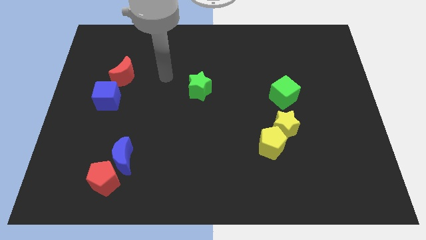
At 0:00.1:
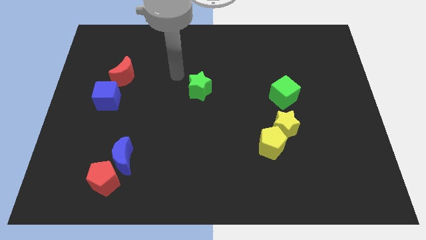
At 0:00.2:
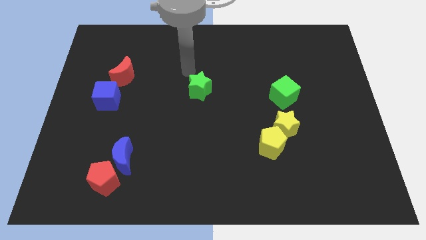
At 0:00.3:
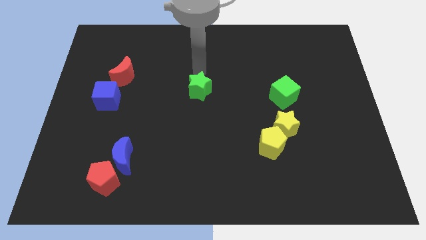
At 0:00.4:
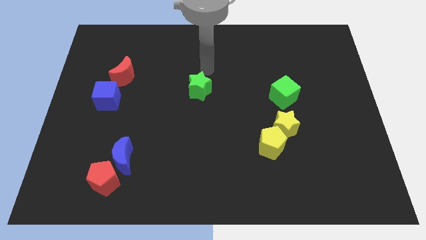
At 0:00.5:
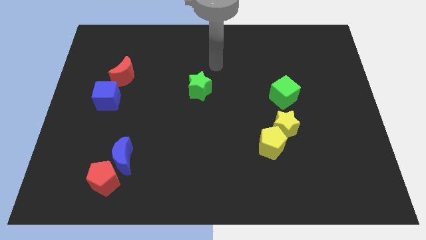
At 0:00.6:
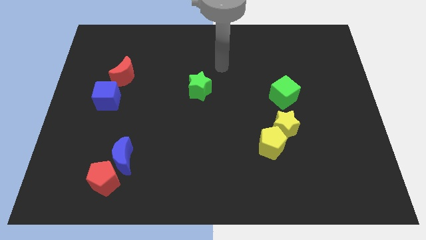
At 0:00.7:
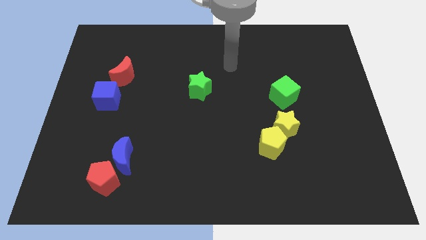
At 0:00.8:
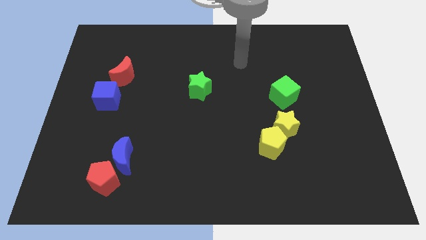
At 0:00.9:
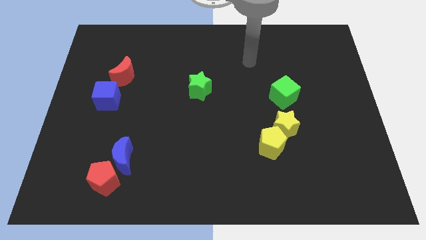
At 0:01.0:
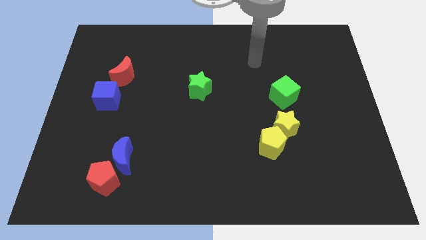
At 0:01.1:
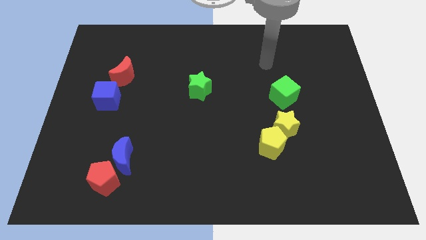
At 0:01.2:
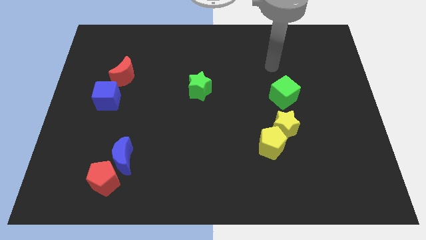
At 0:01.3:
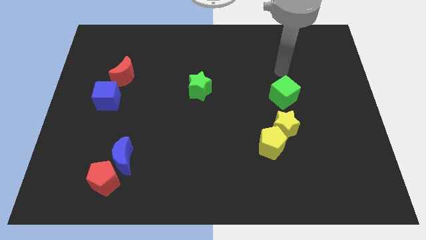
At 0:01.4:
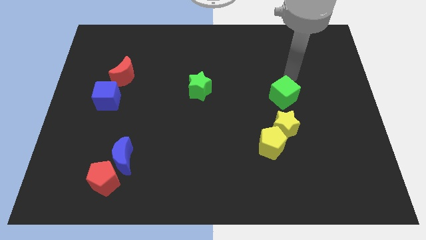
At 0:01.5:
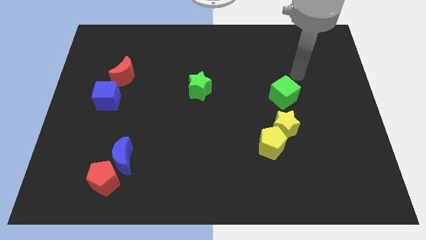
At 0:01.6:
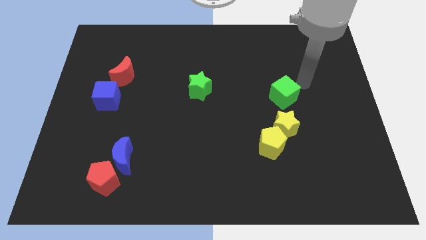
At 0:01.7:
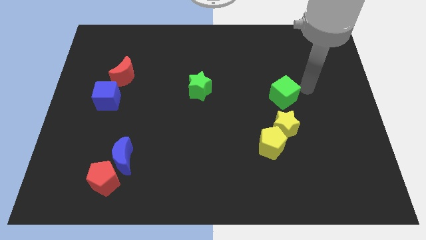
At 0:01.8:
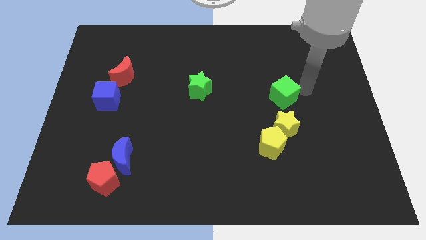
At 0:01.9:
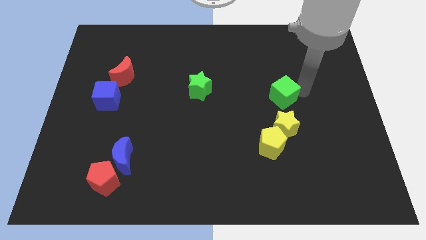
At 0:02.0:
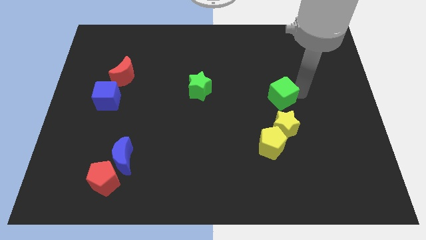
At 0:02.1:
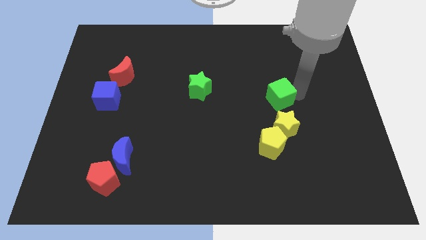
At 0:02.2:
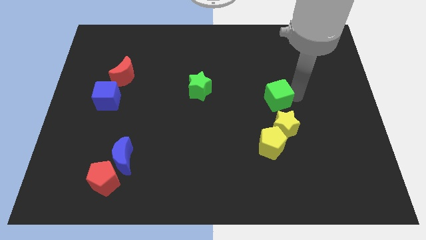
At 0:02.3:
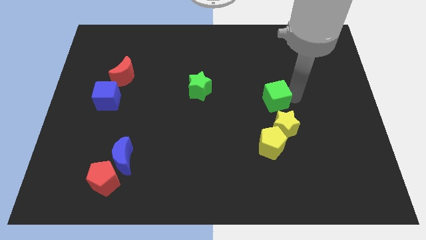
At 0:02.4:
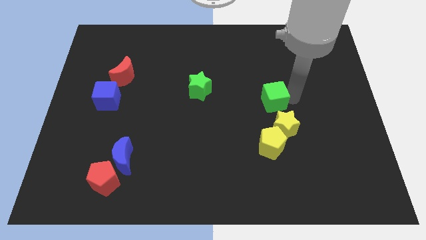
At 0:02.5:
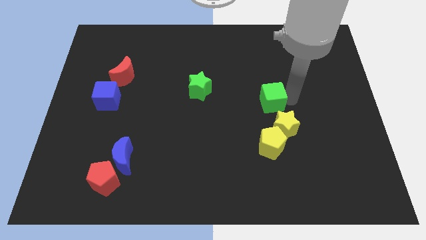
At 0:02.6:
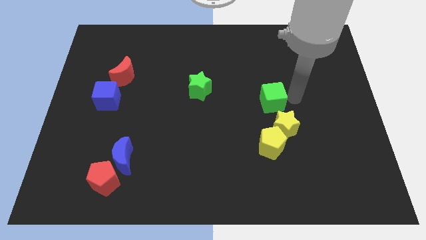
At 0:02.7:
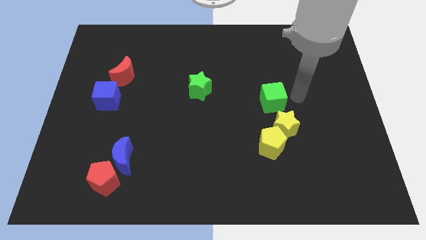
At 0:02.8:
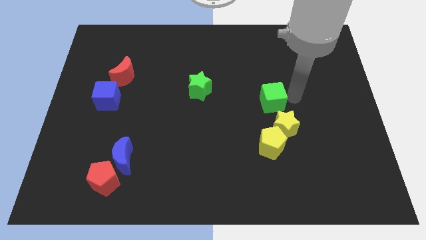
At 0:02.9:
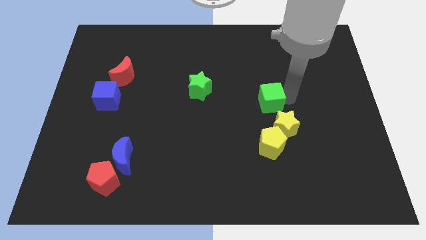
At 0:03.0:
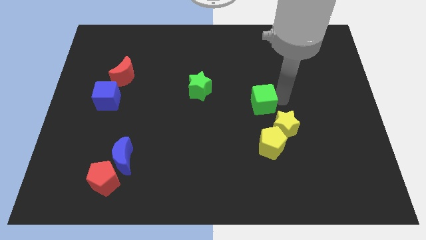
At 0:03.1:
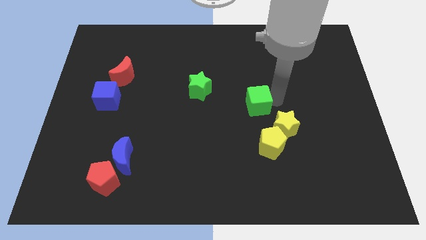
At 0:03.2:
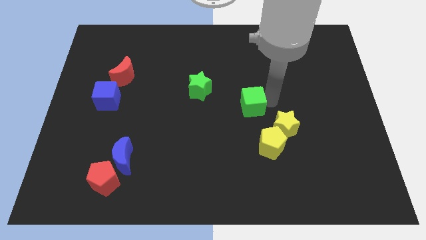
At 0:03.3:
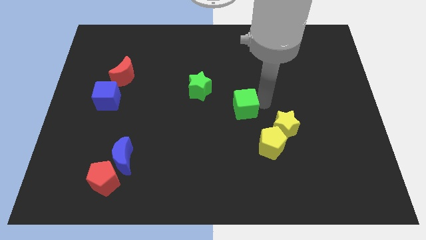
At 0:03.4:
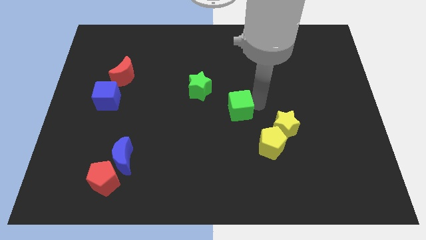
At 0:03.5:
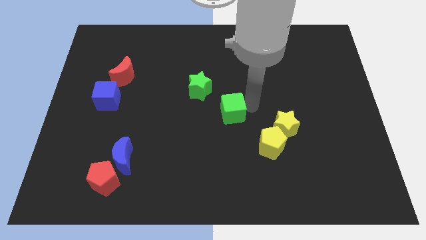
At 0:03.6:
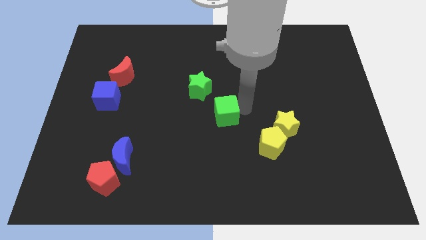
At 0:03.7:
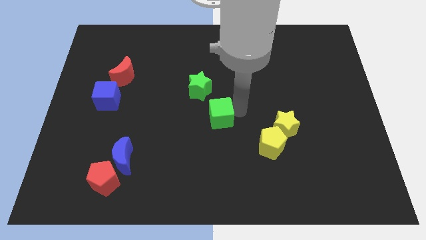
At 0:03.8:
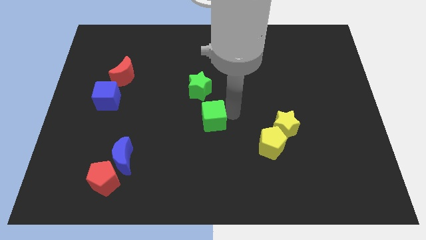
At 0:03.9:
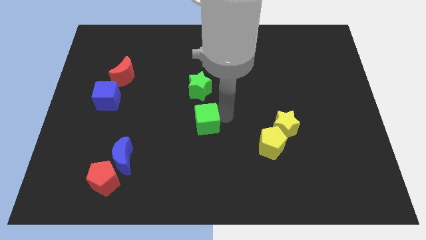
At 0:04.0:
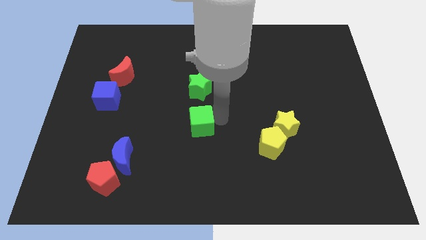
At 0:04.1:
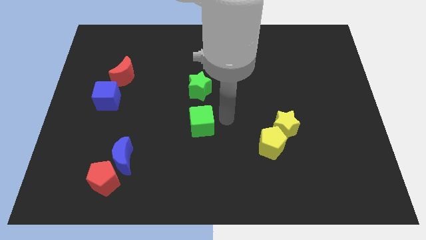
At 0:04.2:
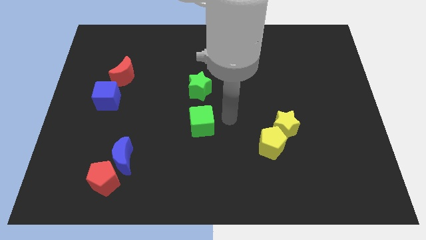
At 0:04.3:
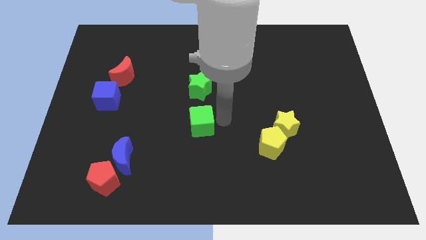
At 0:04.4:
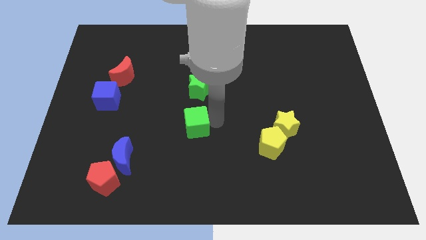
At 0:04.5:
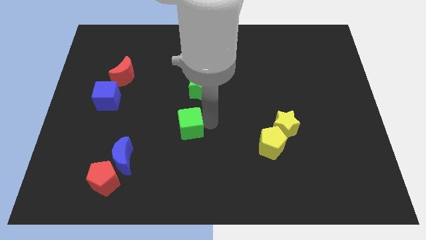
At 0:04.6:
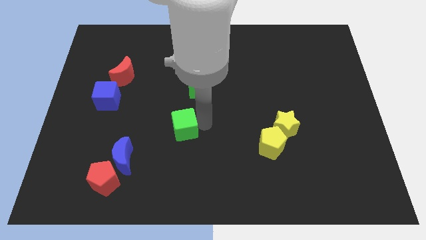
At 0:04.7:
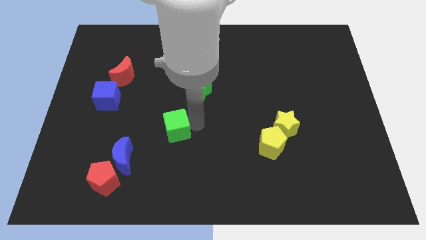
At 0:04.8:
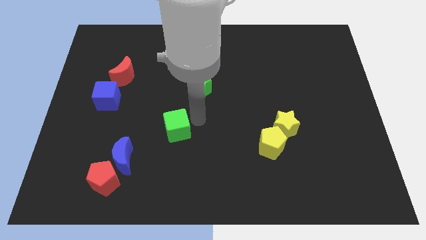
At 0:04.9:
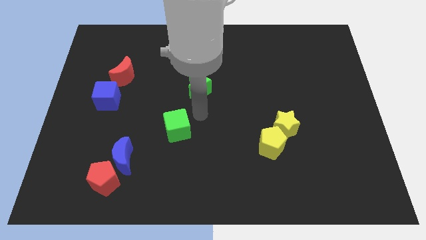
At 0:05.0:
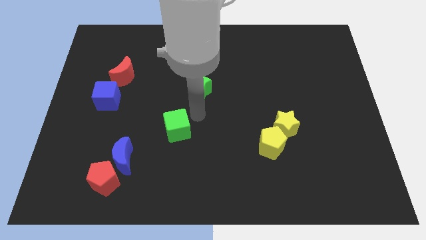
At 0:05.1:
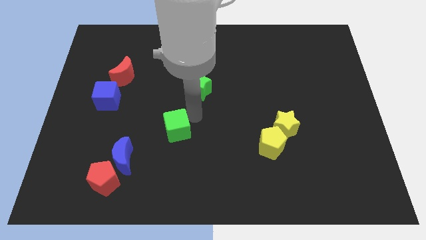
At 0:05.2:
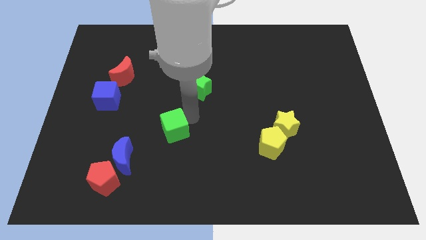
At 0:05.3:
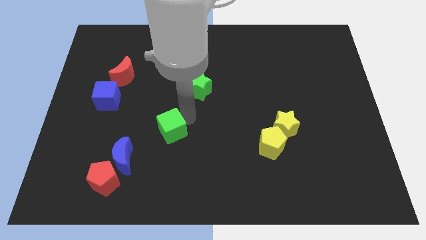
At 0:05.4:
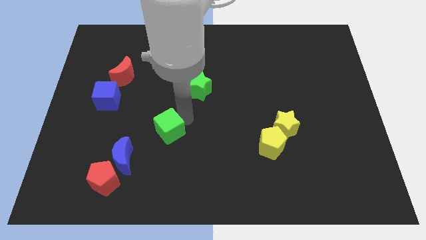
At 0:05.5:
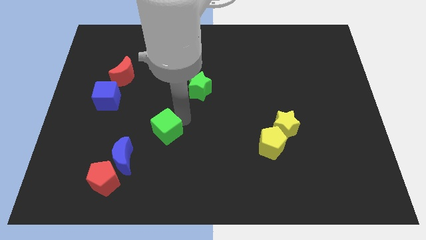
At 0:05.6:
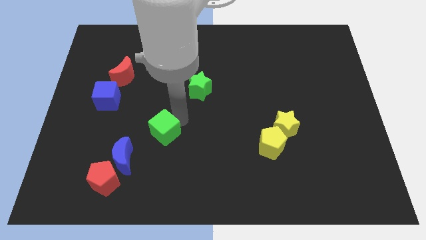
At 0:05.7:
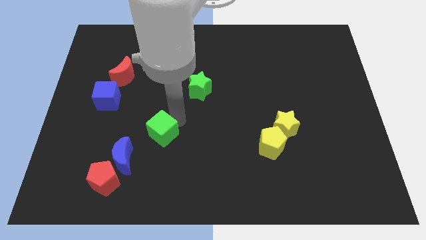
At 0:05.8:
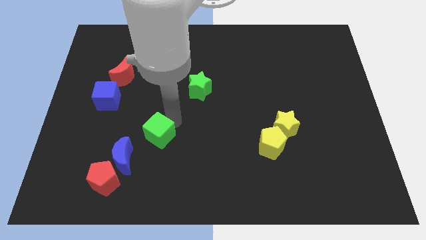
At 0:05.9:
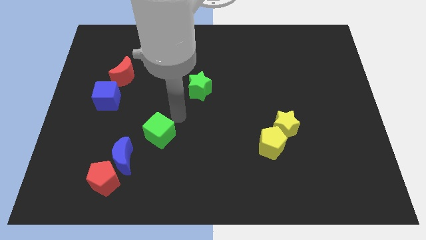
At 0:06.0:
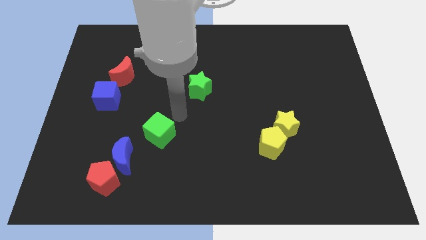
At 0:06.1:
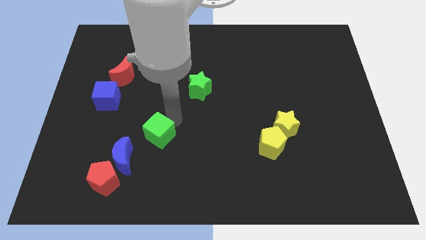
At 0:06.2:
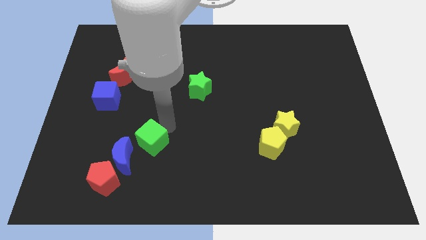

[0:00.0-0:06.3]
move the green cube to the top right of the red pentagon
